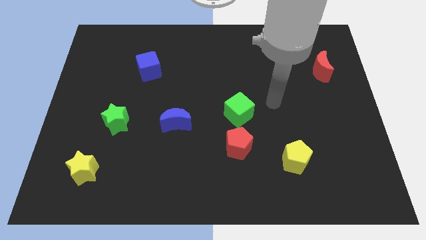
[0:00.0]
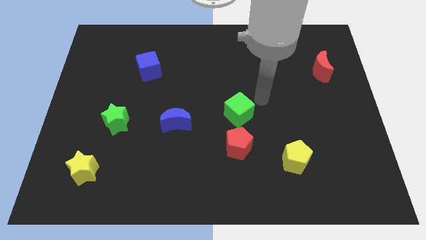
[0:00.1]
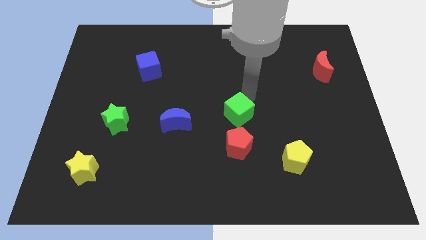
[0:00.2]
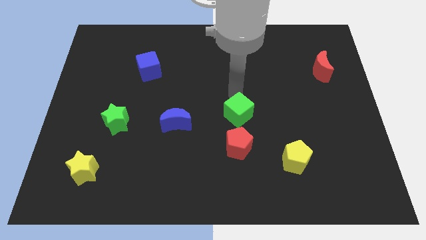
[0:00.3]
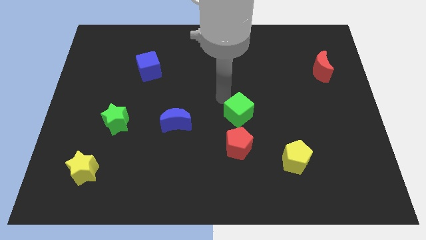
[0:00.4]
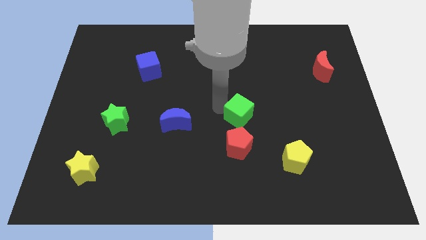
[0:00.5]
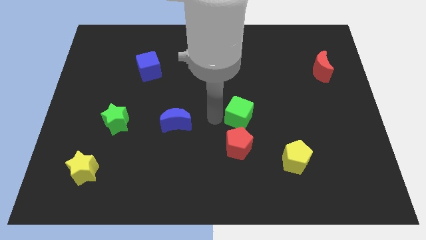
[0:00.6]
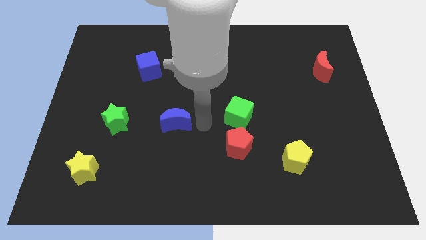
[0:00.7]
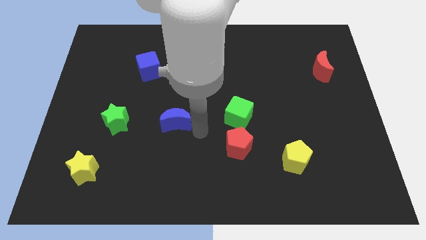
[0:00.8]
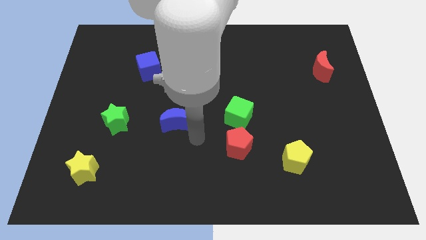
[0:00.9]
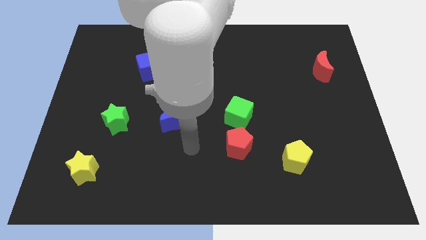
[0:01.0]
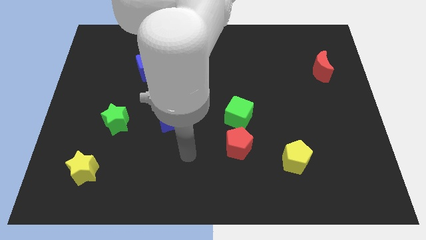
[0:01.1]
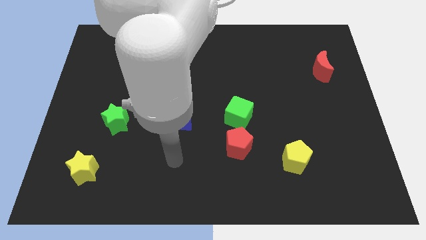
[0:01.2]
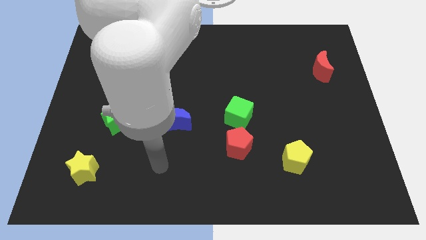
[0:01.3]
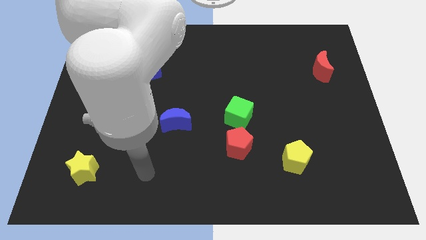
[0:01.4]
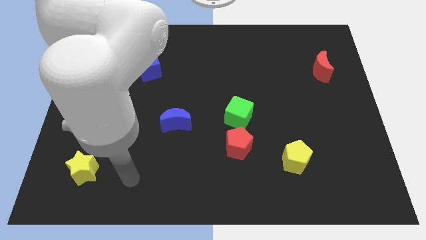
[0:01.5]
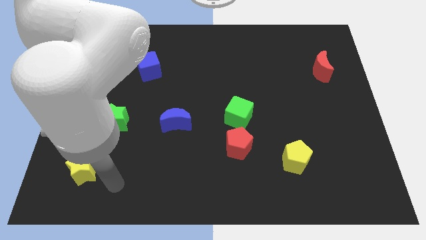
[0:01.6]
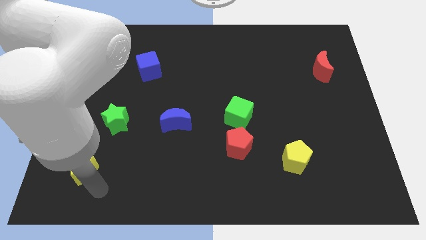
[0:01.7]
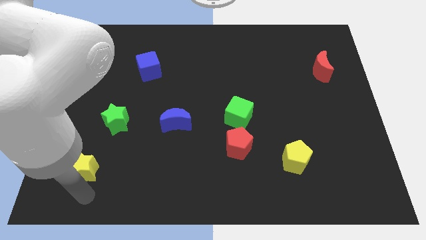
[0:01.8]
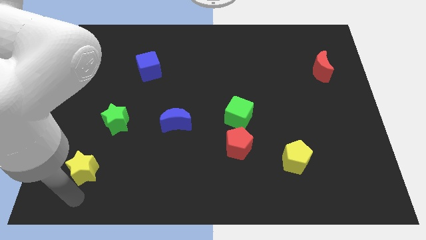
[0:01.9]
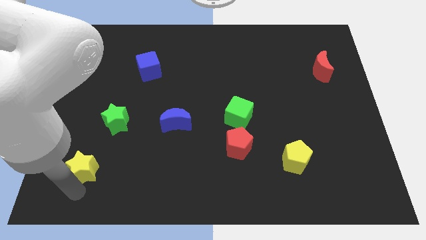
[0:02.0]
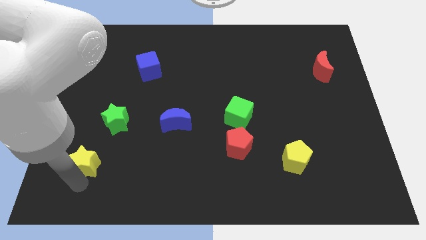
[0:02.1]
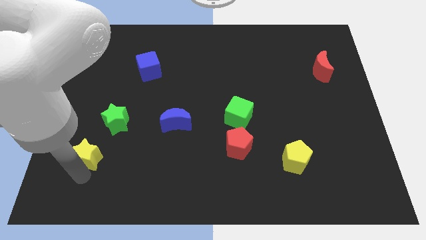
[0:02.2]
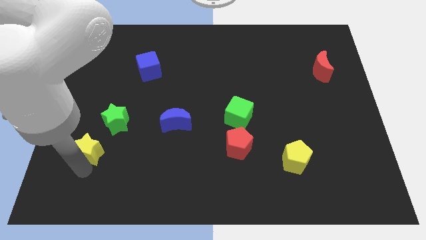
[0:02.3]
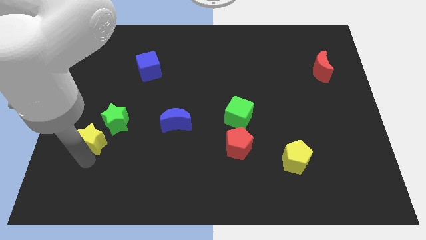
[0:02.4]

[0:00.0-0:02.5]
push the yellow star somewhat upwards

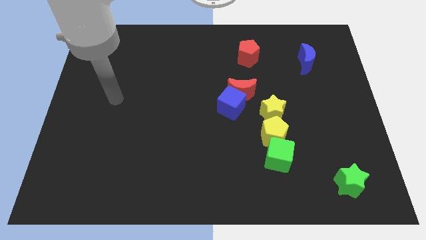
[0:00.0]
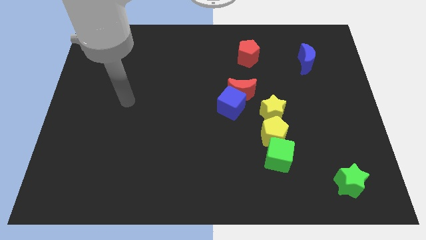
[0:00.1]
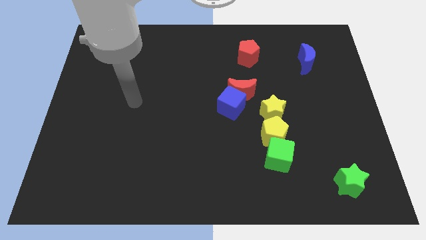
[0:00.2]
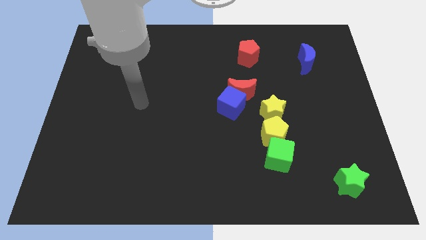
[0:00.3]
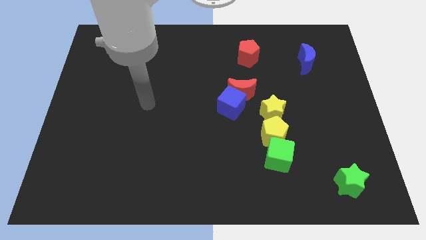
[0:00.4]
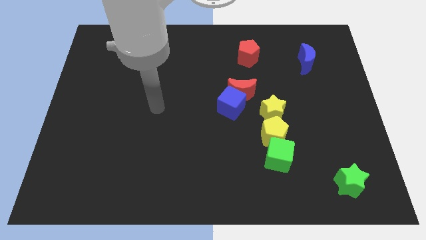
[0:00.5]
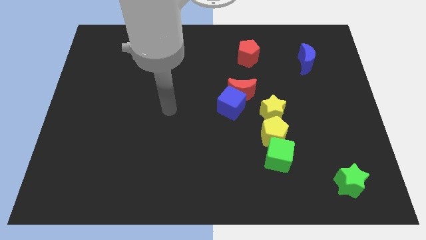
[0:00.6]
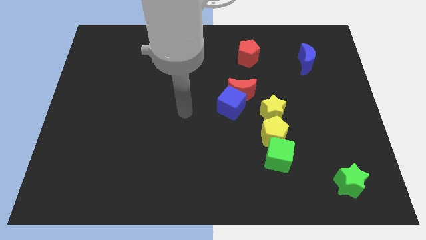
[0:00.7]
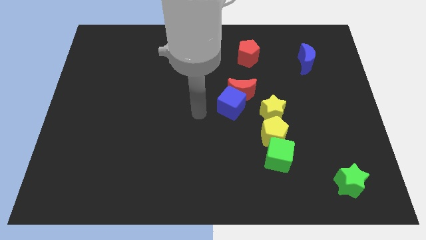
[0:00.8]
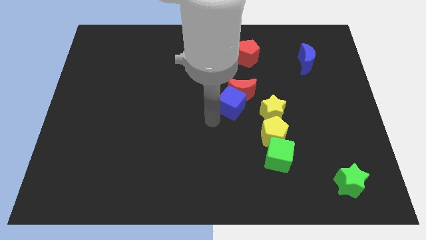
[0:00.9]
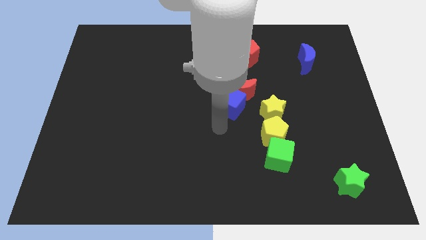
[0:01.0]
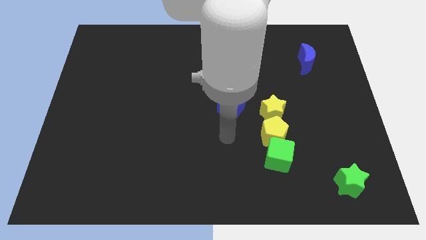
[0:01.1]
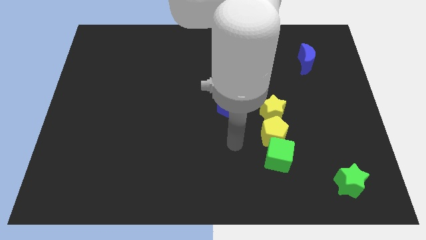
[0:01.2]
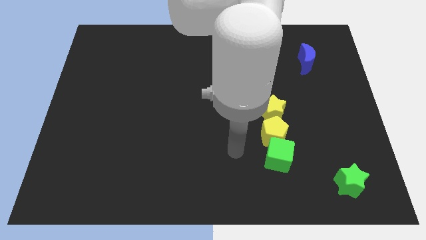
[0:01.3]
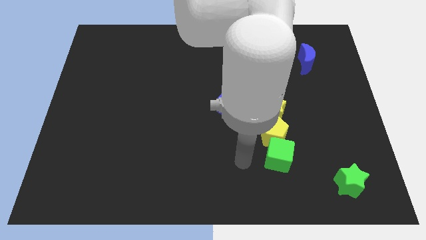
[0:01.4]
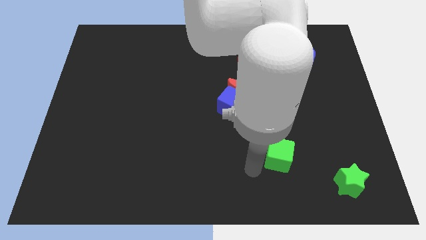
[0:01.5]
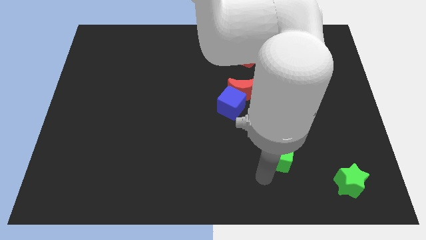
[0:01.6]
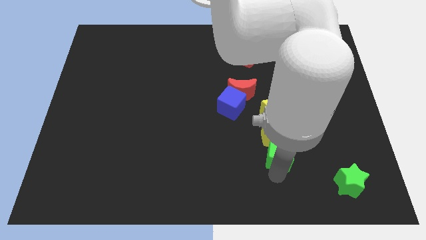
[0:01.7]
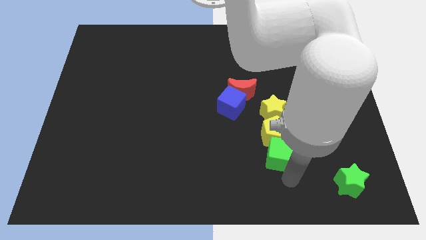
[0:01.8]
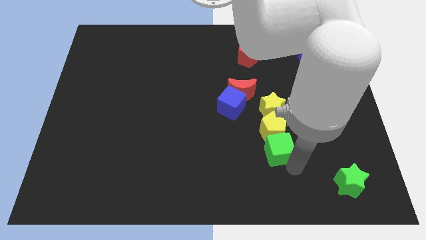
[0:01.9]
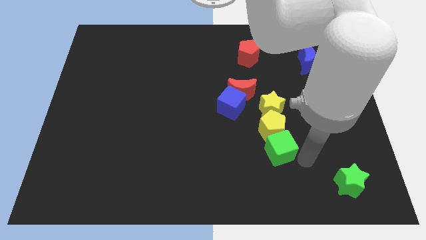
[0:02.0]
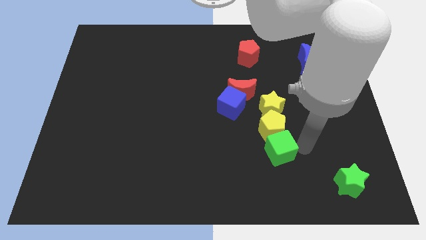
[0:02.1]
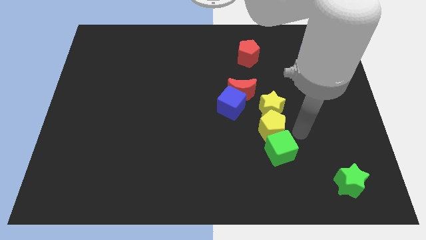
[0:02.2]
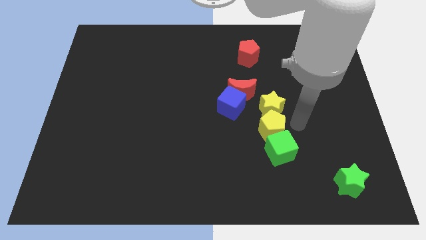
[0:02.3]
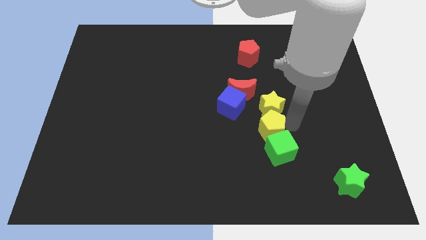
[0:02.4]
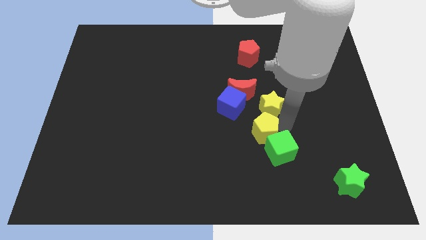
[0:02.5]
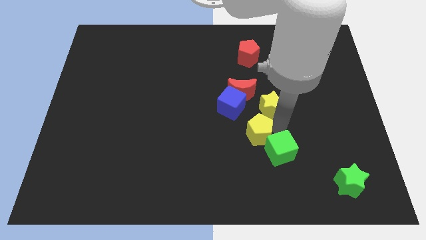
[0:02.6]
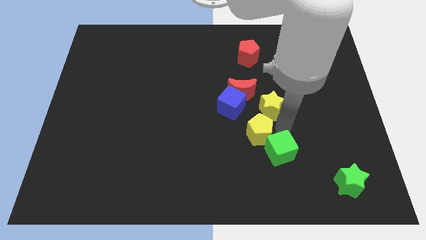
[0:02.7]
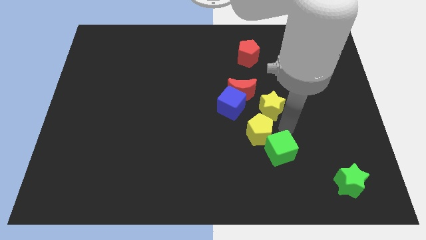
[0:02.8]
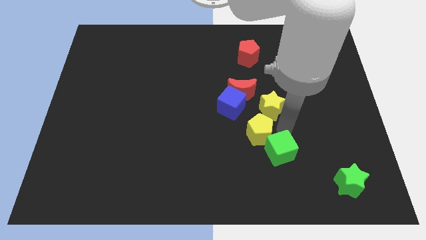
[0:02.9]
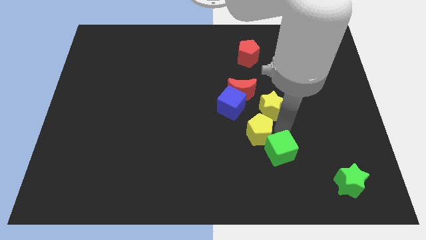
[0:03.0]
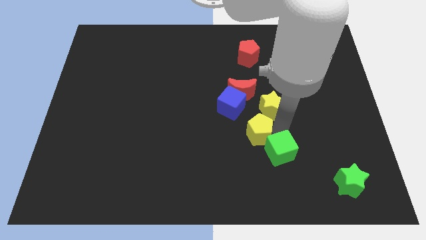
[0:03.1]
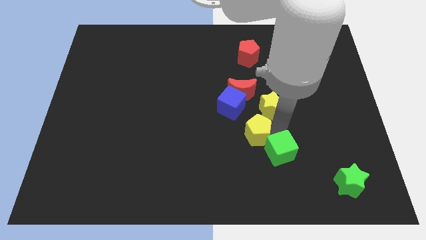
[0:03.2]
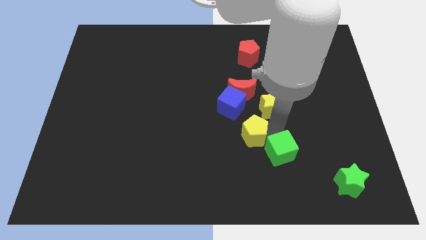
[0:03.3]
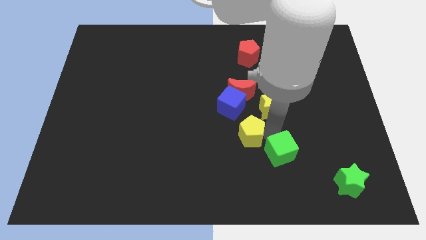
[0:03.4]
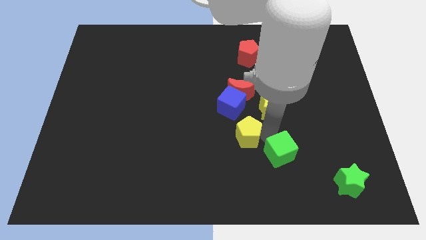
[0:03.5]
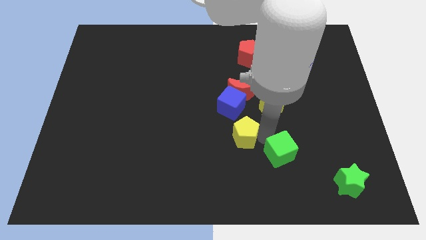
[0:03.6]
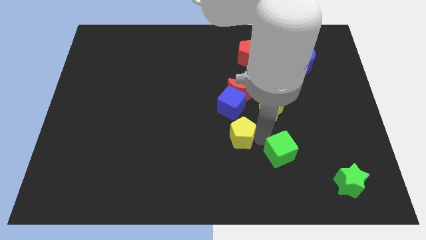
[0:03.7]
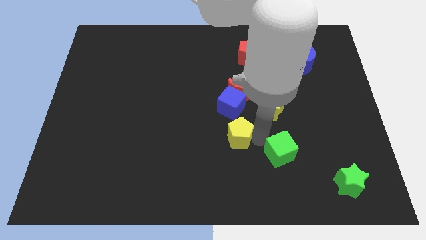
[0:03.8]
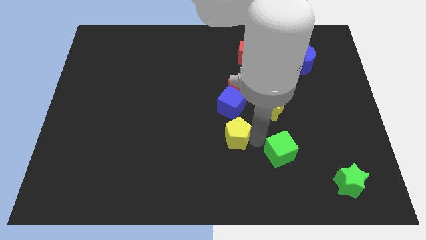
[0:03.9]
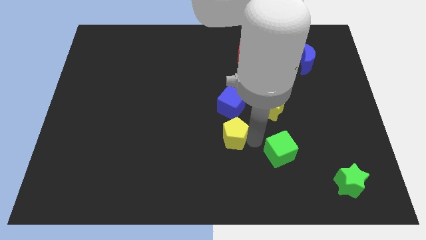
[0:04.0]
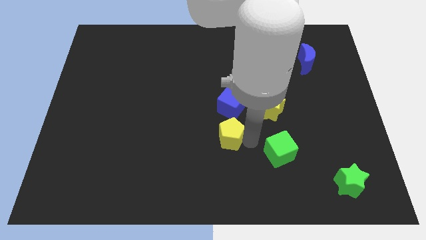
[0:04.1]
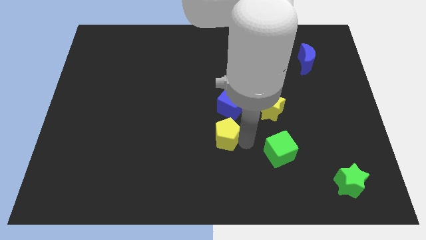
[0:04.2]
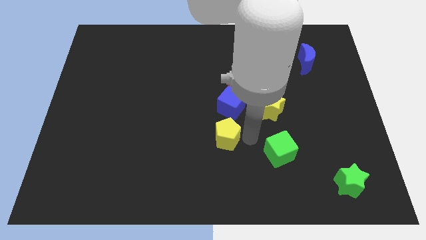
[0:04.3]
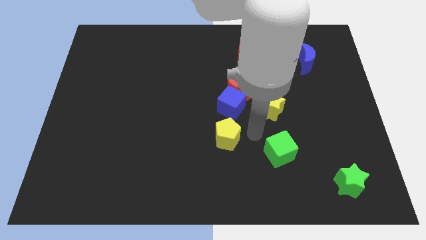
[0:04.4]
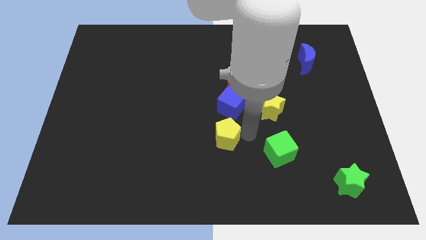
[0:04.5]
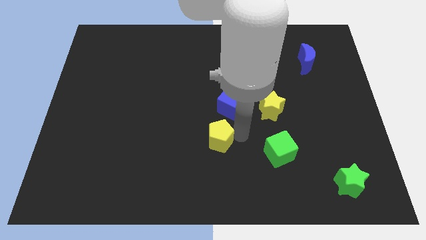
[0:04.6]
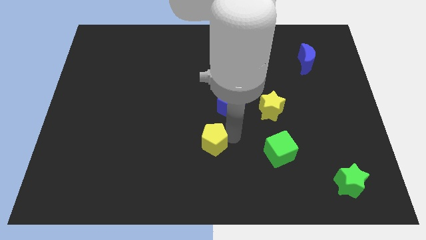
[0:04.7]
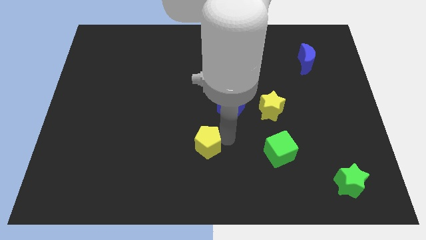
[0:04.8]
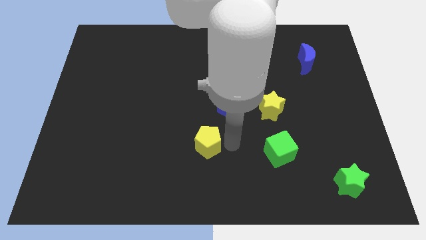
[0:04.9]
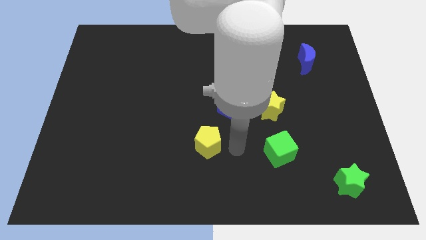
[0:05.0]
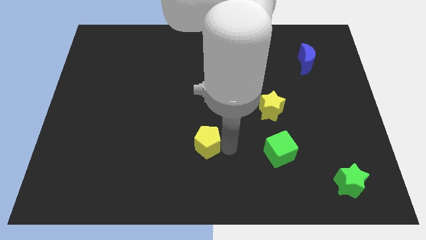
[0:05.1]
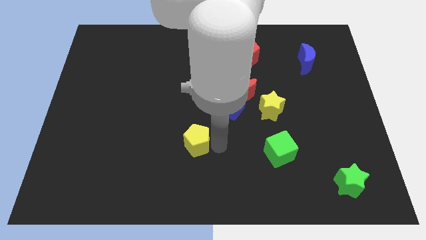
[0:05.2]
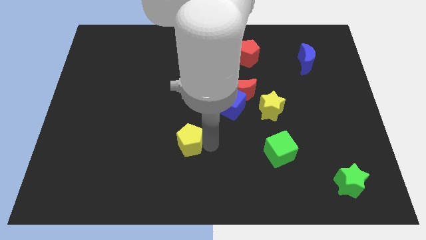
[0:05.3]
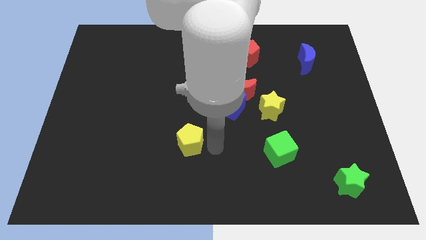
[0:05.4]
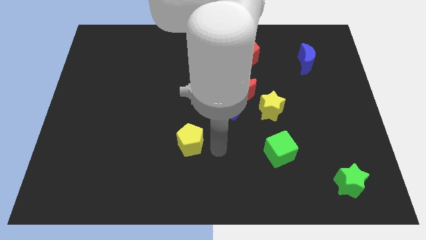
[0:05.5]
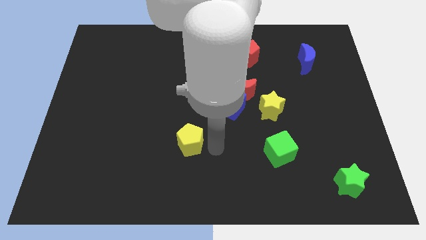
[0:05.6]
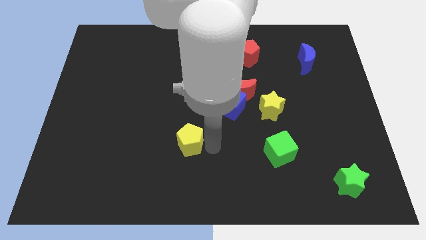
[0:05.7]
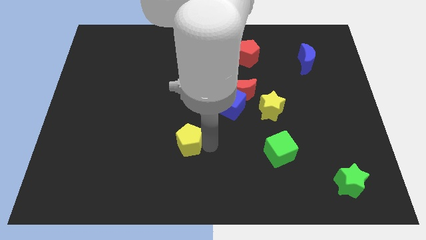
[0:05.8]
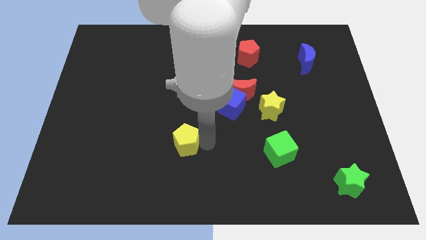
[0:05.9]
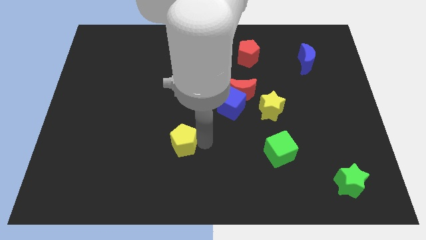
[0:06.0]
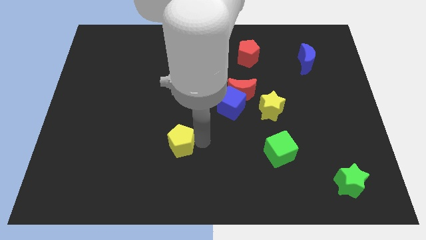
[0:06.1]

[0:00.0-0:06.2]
slide the yellow pentagon left
